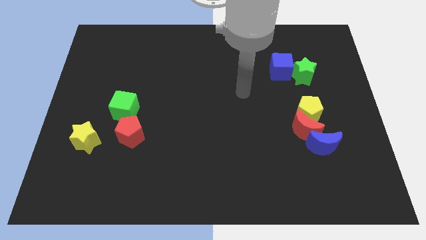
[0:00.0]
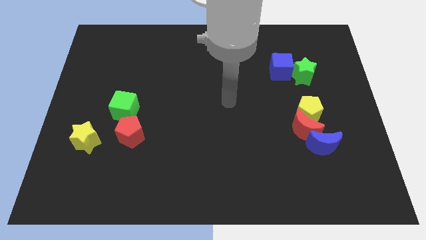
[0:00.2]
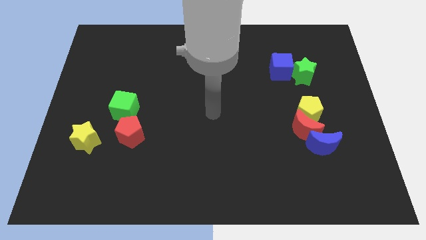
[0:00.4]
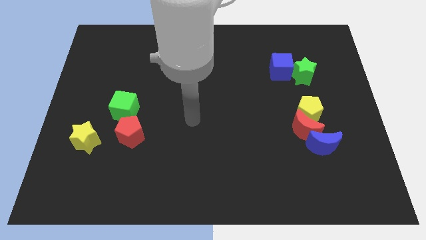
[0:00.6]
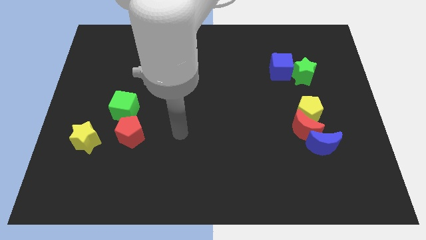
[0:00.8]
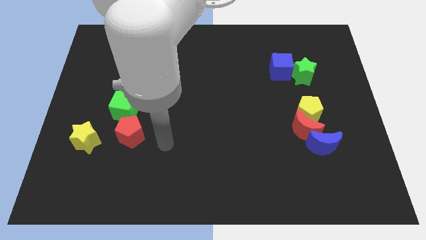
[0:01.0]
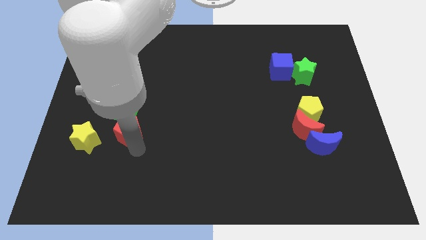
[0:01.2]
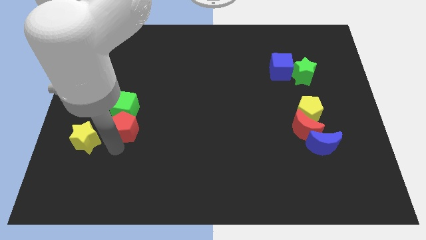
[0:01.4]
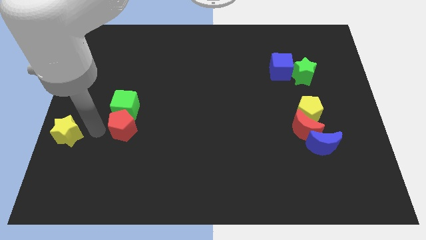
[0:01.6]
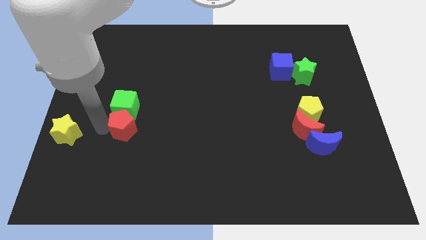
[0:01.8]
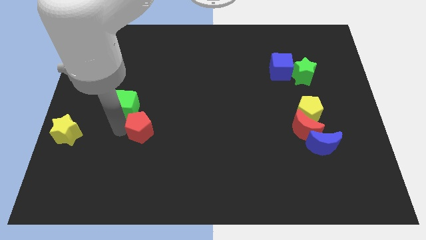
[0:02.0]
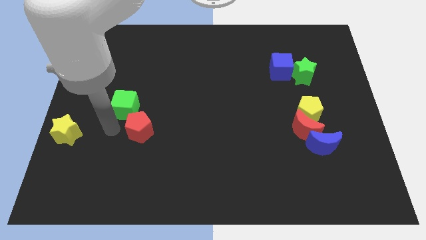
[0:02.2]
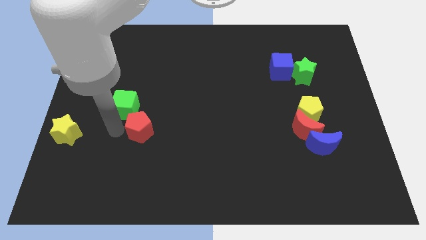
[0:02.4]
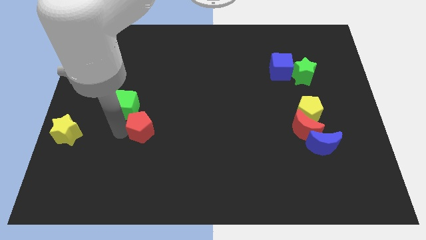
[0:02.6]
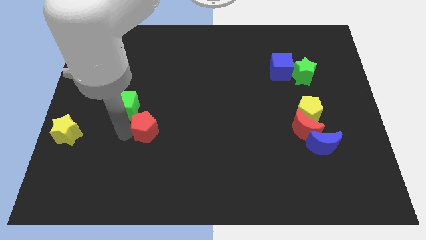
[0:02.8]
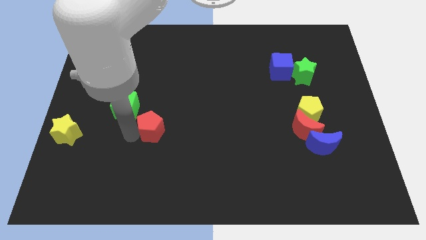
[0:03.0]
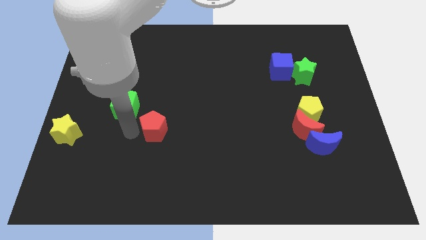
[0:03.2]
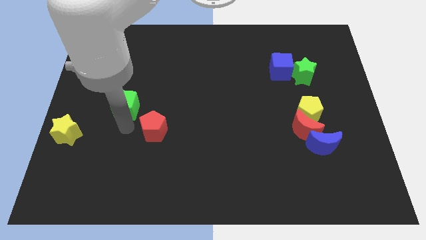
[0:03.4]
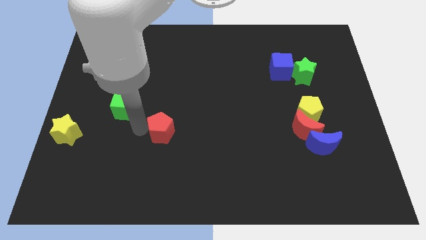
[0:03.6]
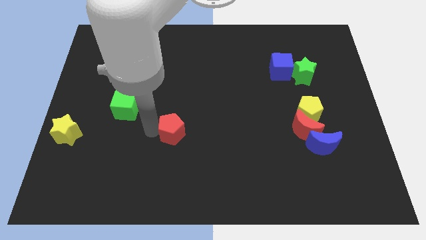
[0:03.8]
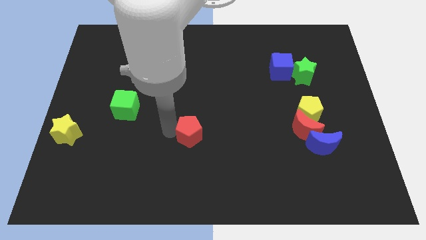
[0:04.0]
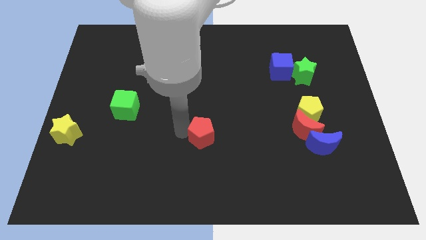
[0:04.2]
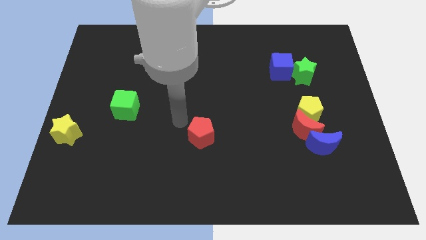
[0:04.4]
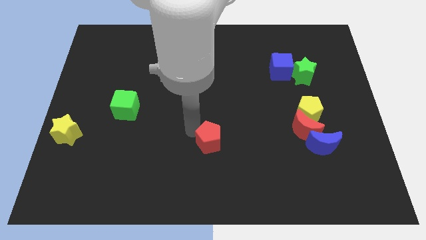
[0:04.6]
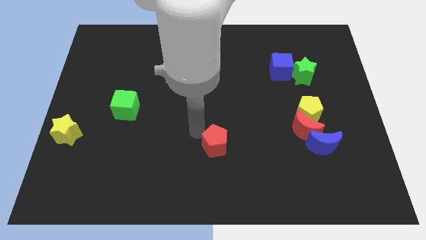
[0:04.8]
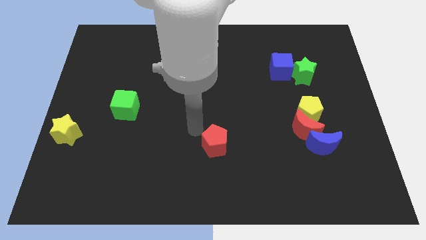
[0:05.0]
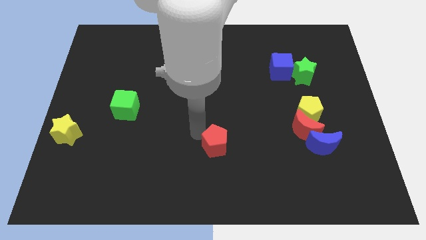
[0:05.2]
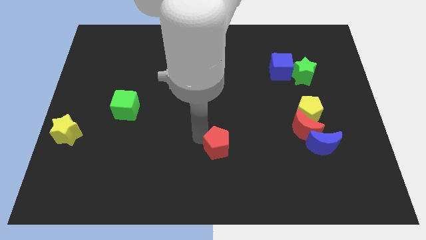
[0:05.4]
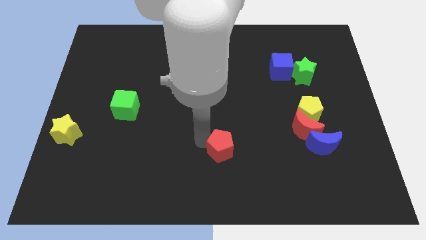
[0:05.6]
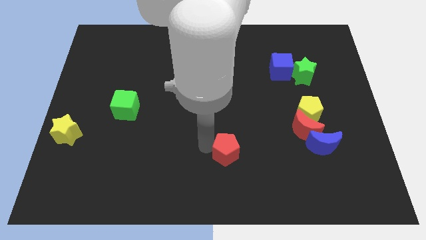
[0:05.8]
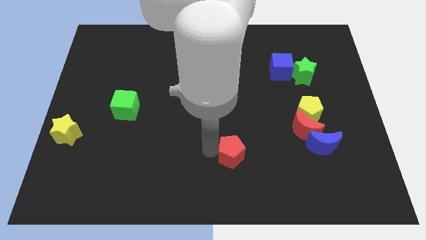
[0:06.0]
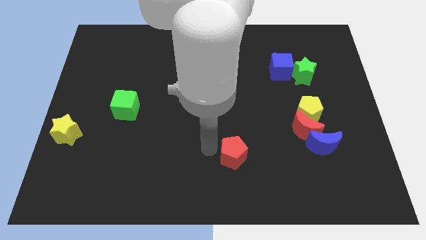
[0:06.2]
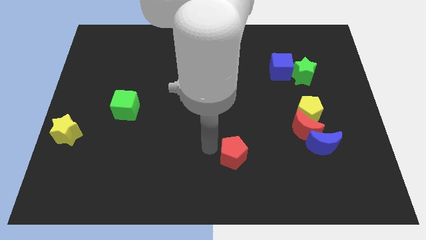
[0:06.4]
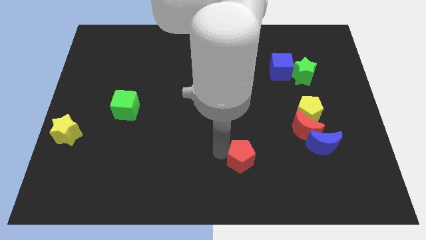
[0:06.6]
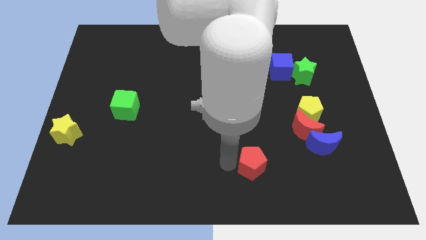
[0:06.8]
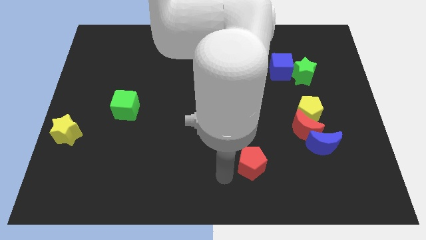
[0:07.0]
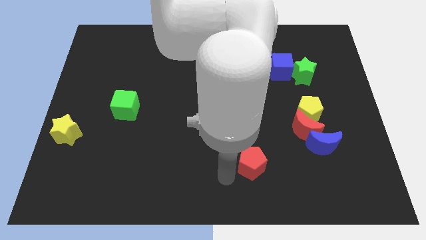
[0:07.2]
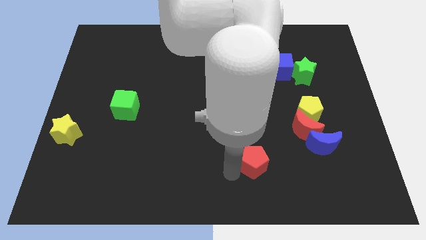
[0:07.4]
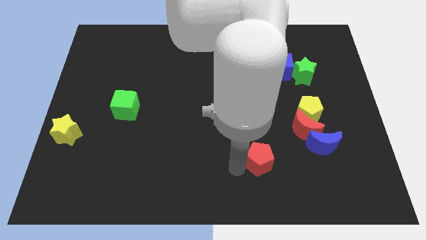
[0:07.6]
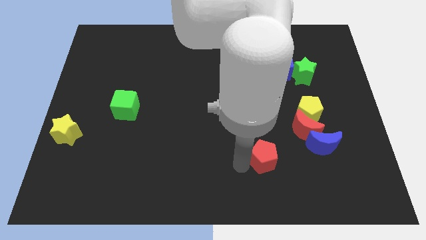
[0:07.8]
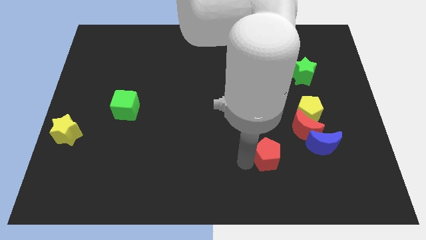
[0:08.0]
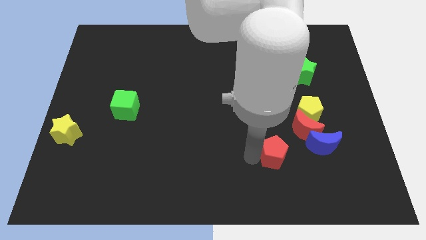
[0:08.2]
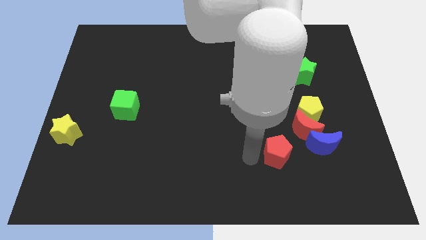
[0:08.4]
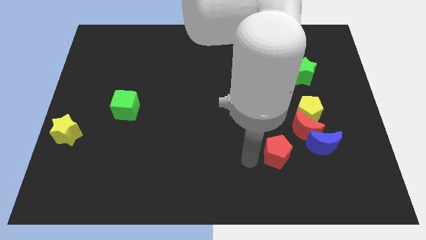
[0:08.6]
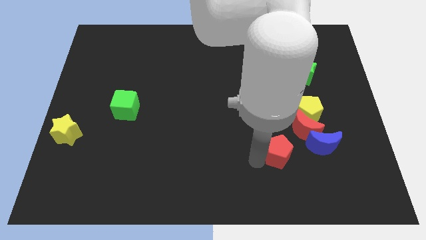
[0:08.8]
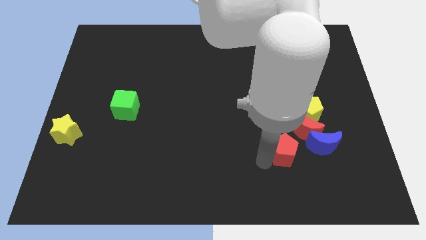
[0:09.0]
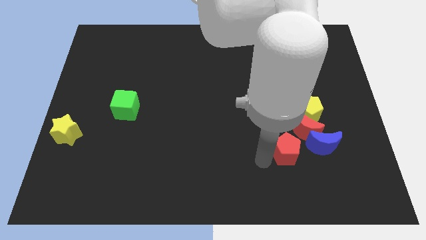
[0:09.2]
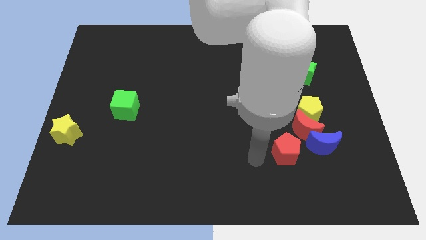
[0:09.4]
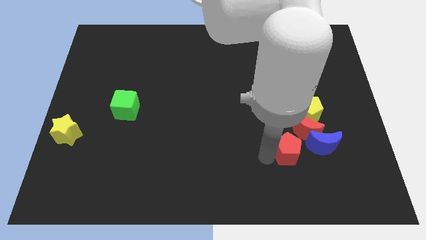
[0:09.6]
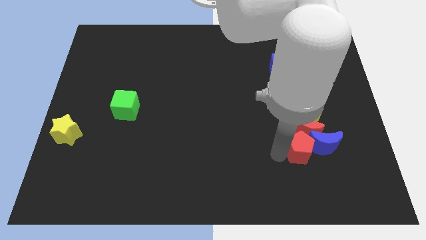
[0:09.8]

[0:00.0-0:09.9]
push the red pentagon next to the blue moon

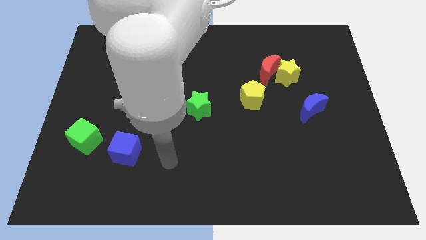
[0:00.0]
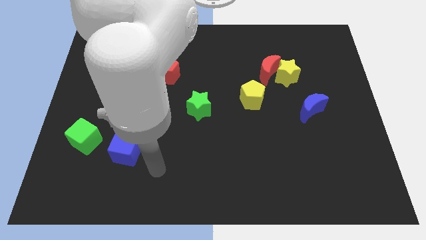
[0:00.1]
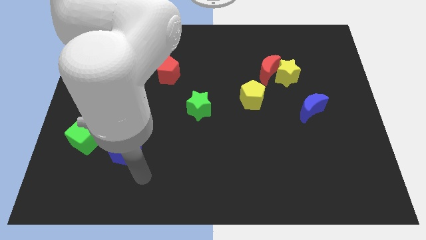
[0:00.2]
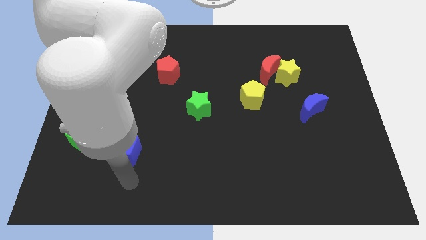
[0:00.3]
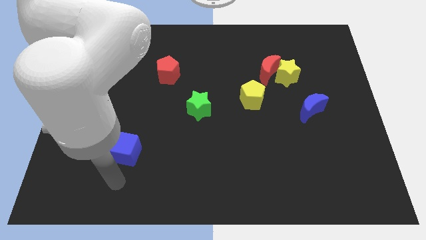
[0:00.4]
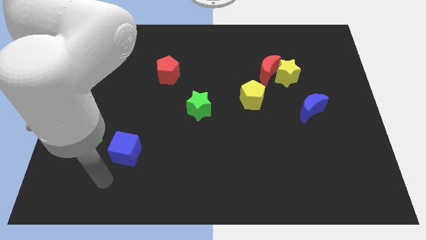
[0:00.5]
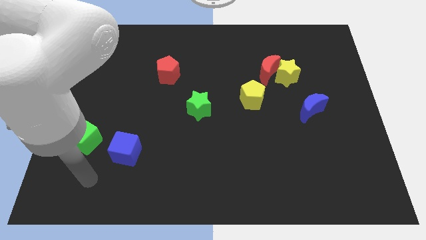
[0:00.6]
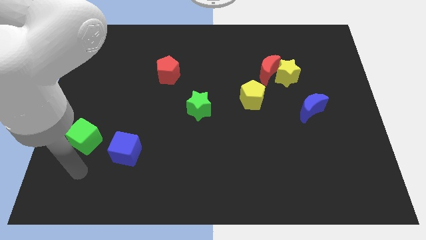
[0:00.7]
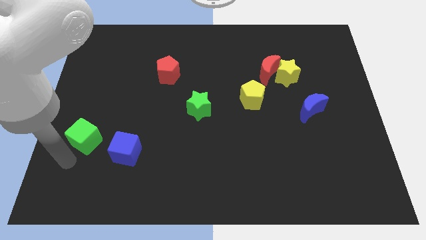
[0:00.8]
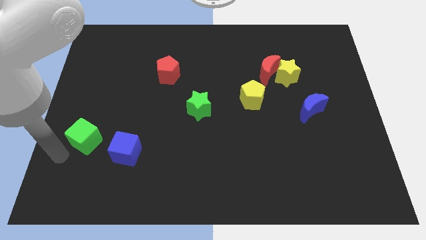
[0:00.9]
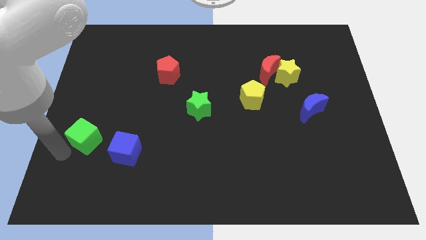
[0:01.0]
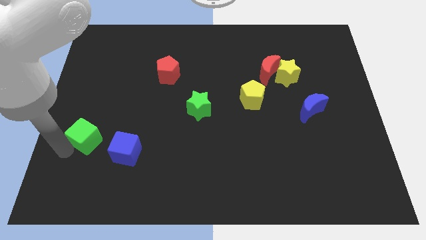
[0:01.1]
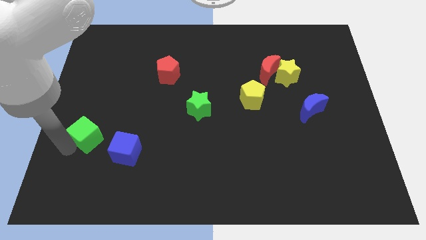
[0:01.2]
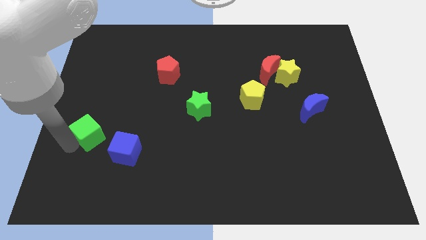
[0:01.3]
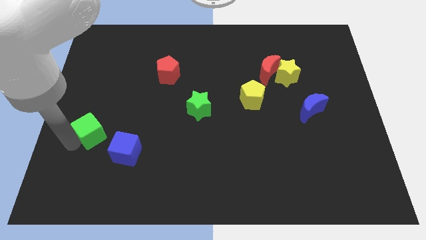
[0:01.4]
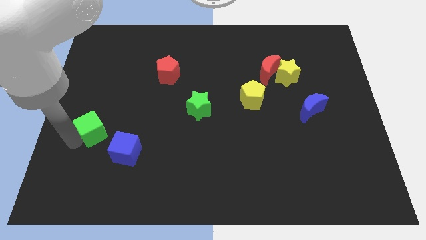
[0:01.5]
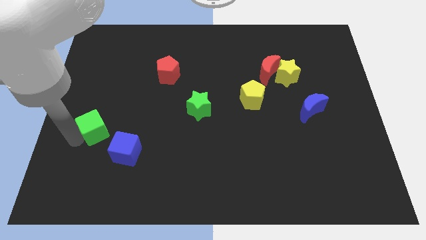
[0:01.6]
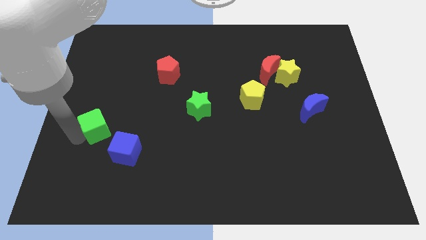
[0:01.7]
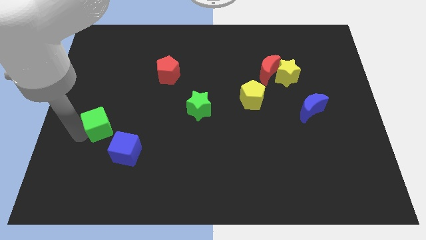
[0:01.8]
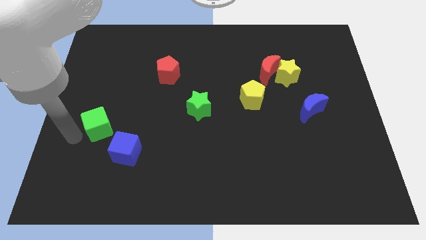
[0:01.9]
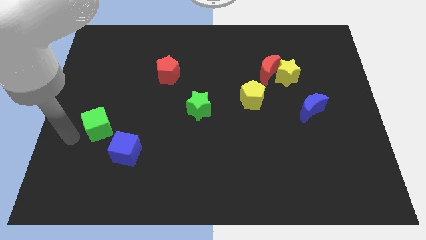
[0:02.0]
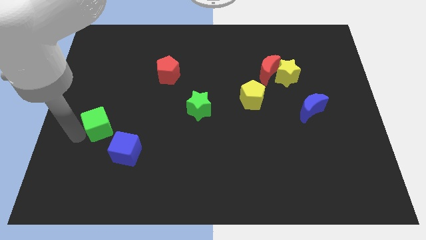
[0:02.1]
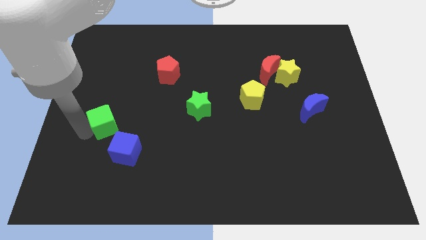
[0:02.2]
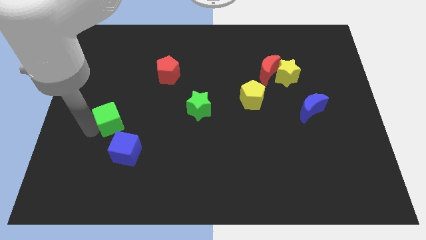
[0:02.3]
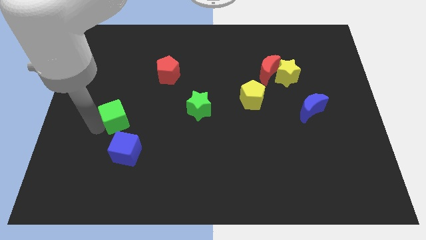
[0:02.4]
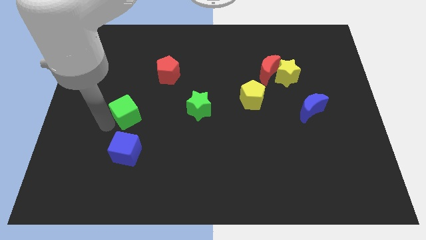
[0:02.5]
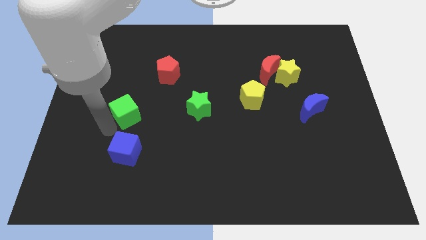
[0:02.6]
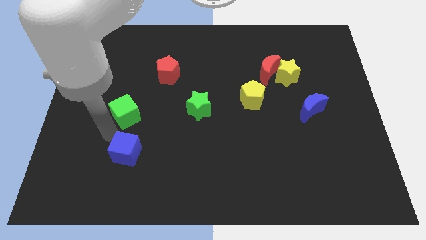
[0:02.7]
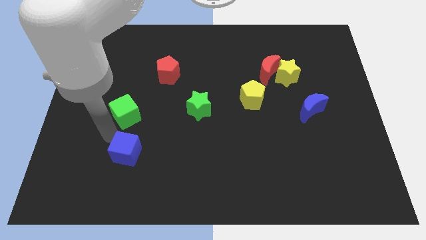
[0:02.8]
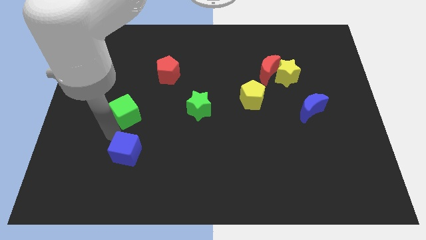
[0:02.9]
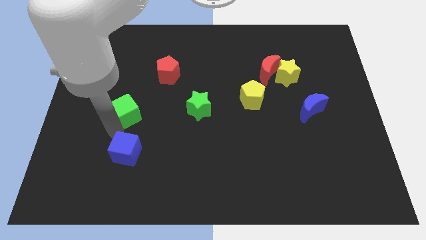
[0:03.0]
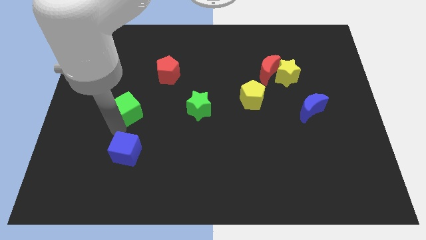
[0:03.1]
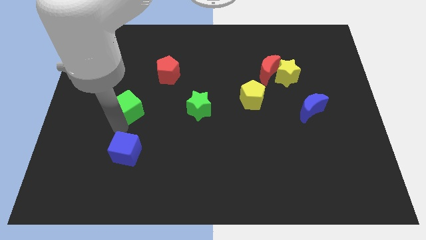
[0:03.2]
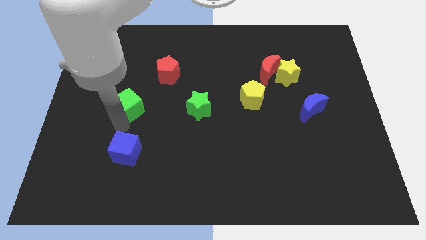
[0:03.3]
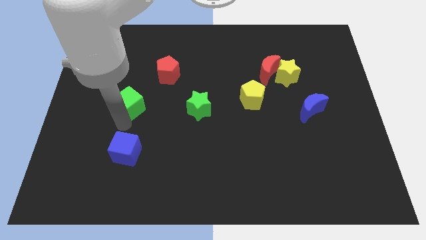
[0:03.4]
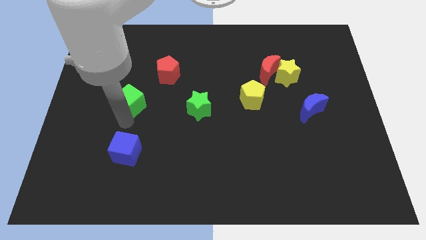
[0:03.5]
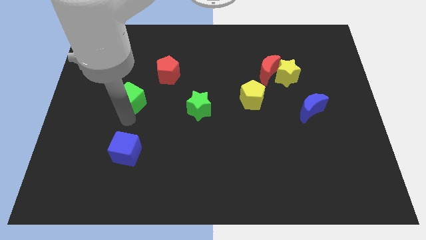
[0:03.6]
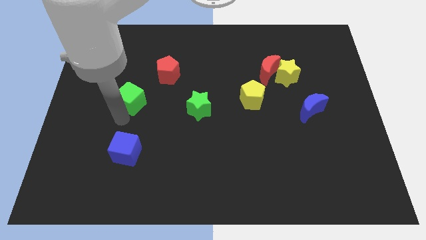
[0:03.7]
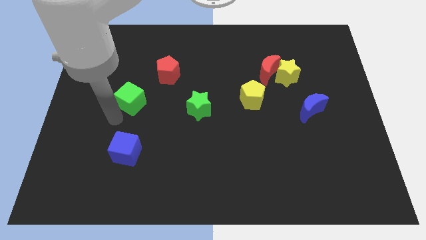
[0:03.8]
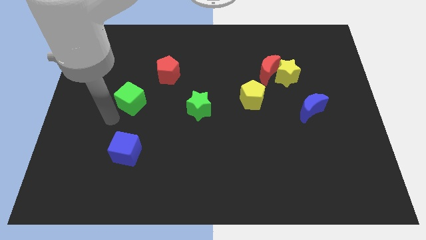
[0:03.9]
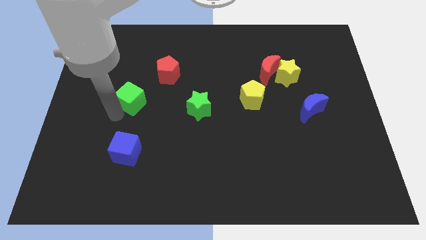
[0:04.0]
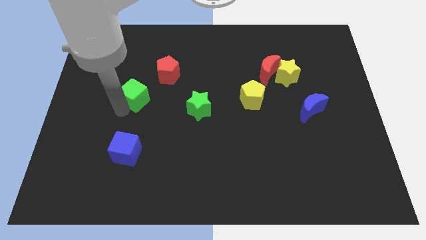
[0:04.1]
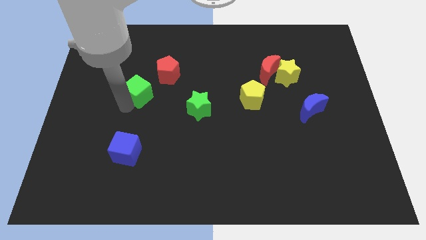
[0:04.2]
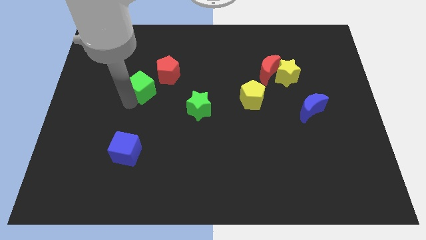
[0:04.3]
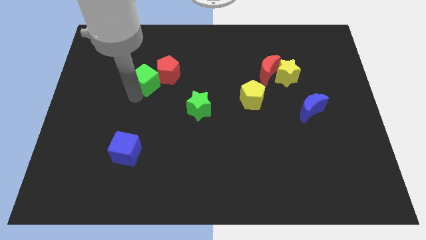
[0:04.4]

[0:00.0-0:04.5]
slide the green cube close to the red pentagon
